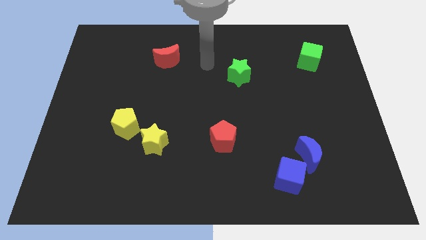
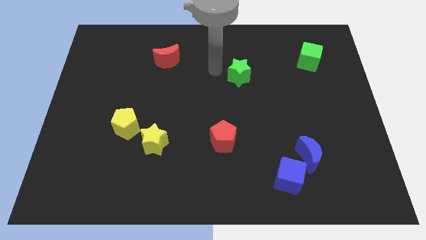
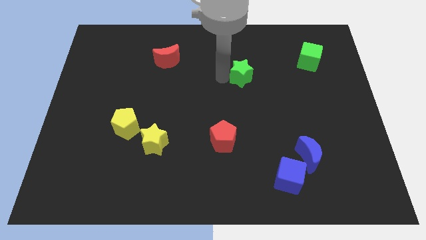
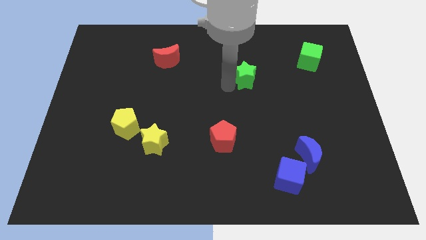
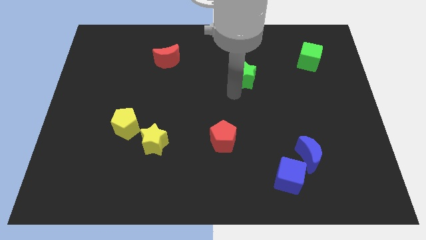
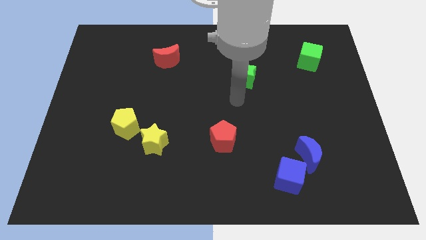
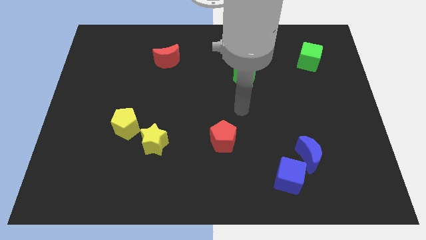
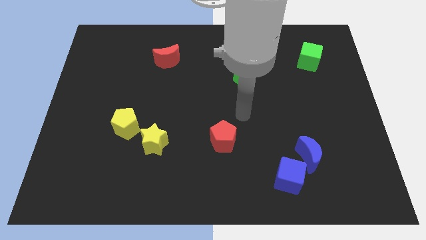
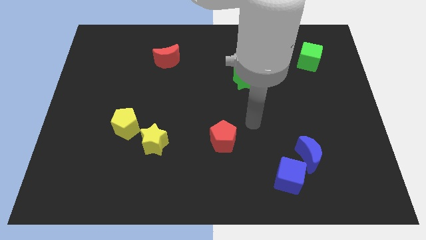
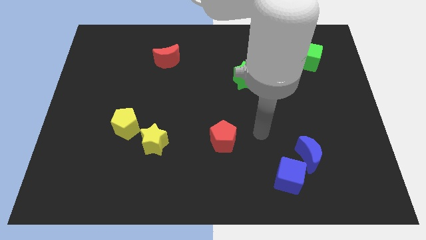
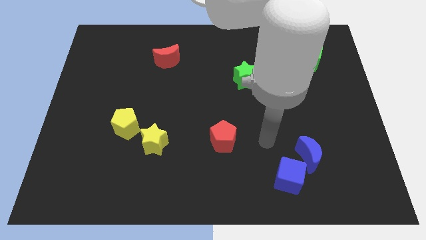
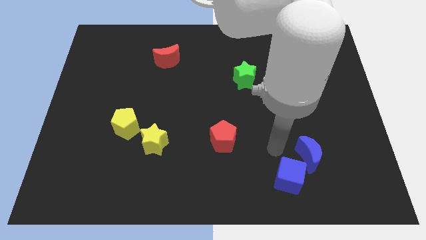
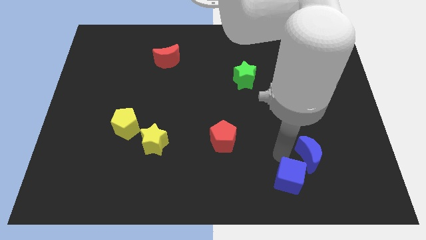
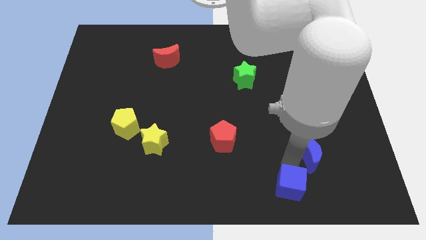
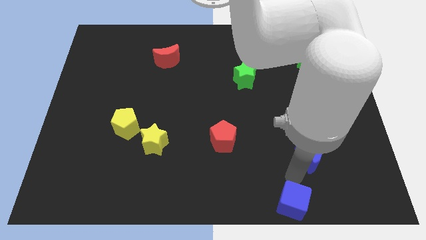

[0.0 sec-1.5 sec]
pull the blue moon apart from the blue cube

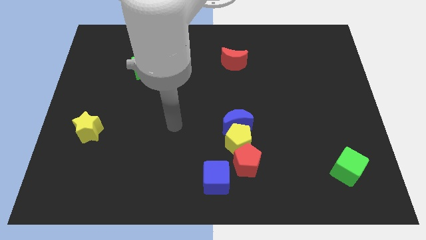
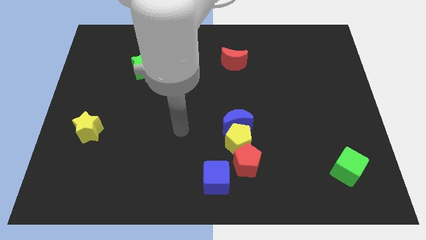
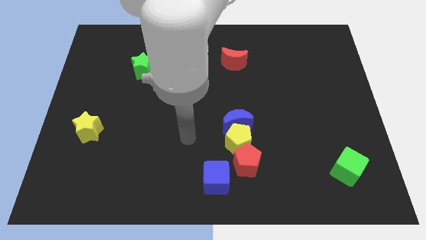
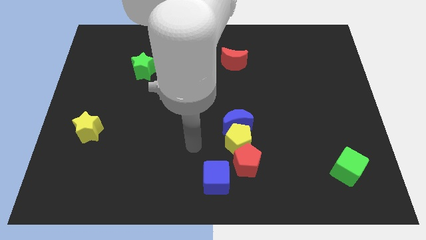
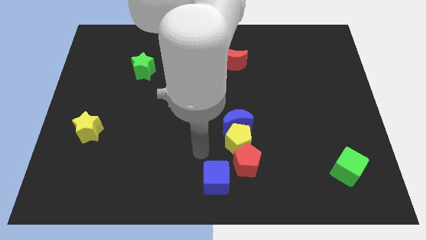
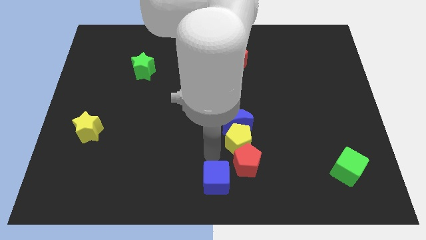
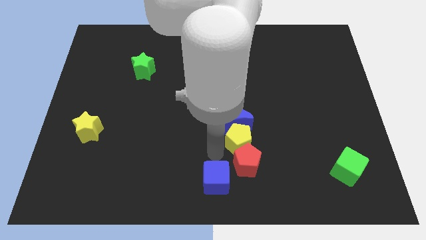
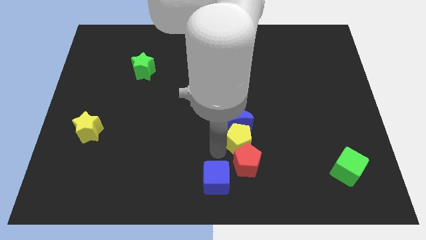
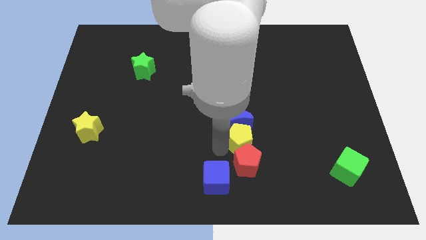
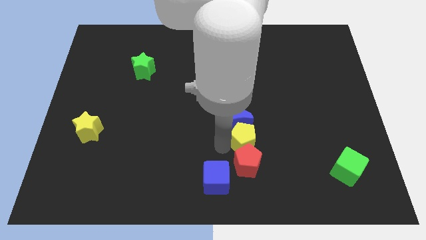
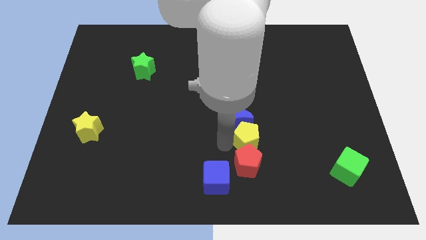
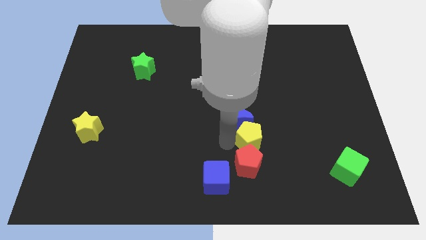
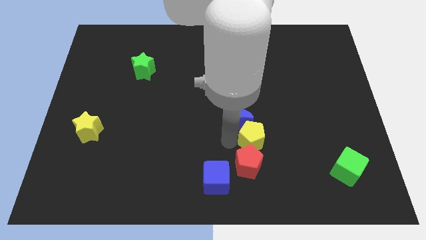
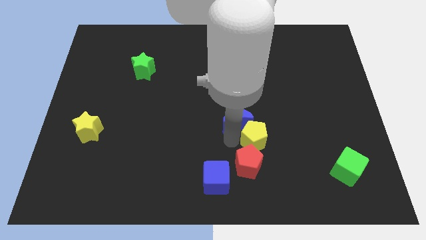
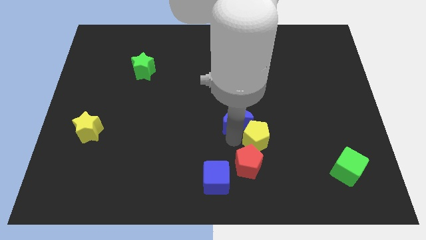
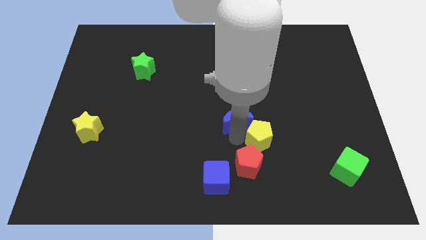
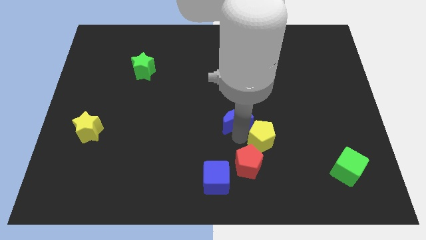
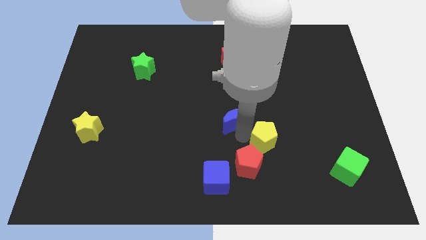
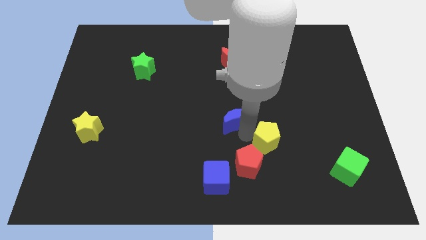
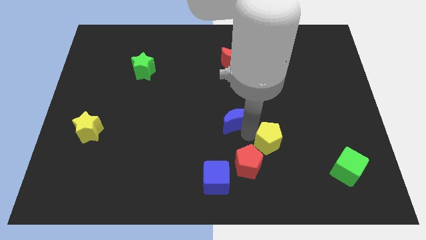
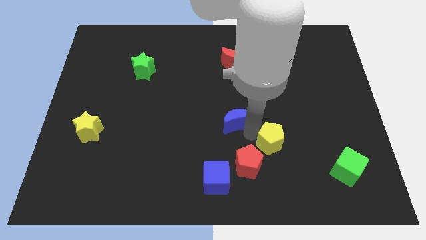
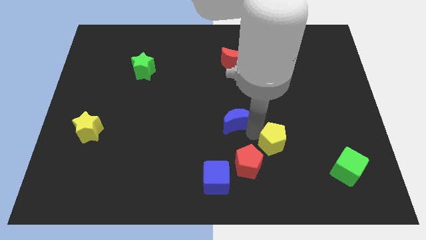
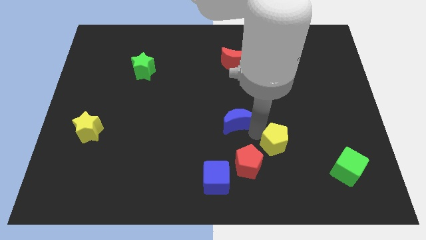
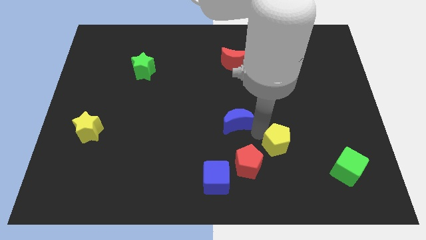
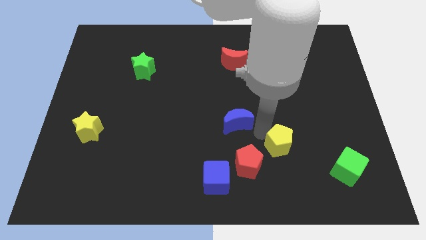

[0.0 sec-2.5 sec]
pull the yellow pentagon apart from the blue moon, red pentagon, and blue cube

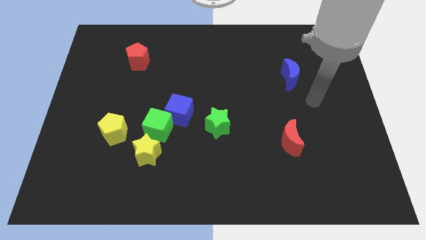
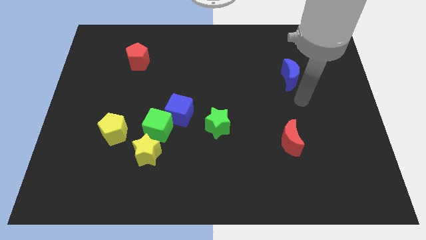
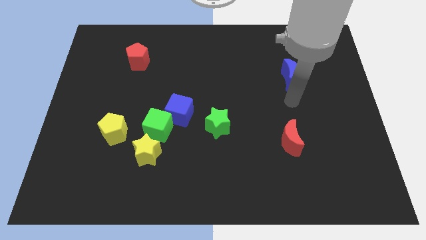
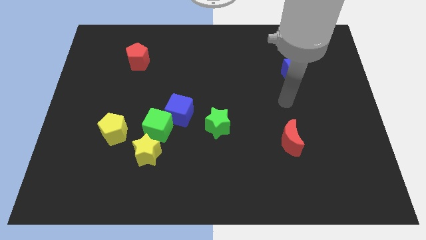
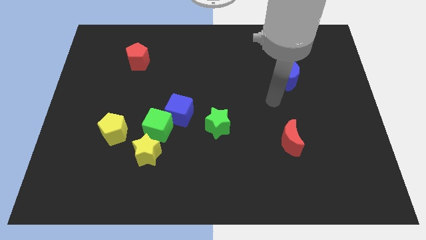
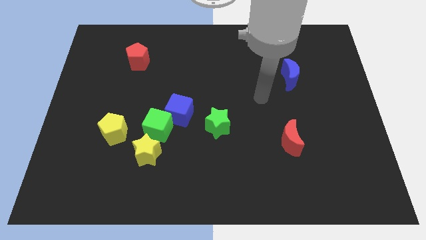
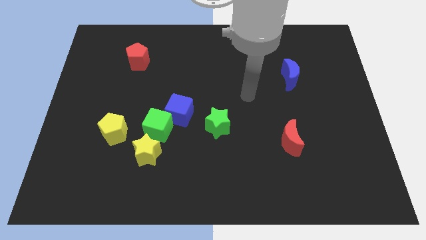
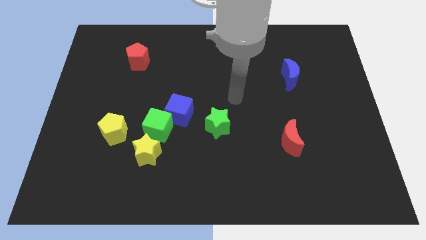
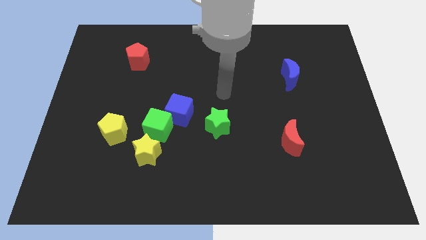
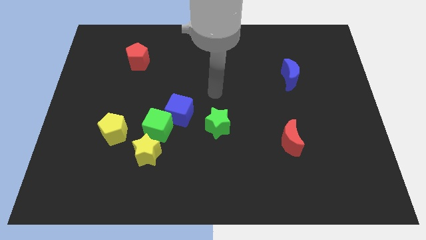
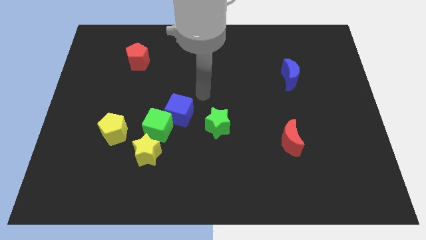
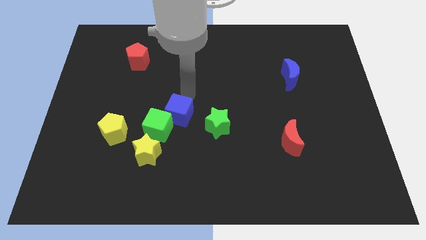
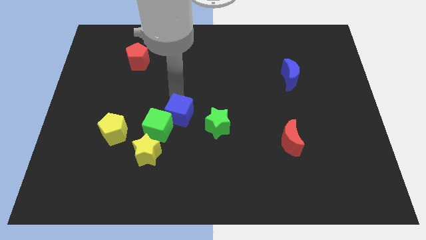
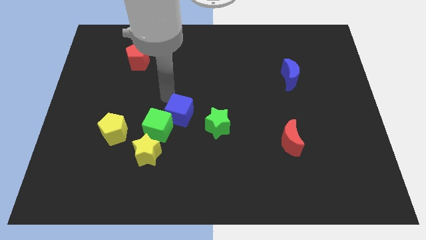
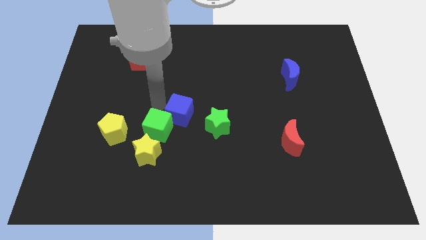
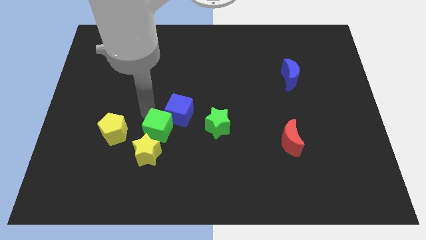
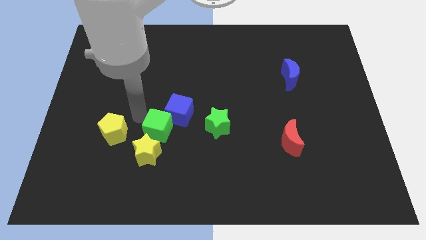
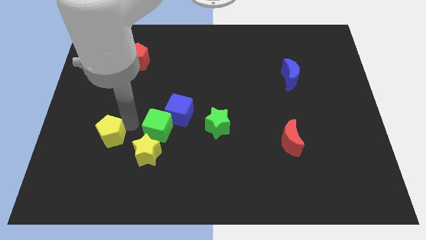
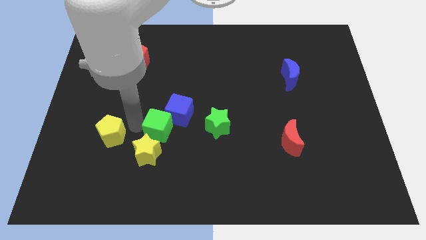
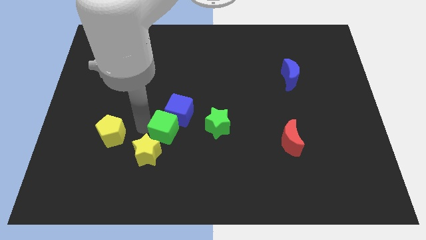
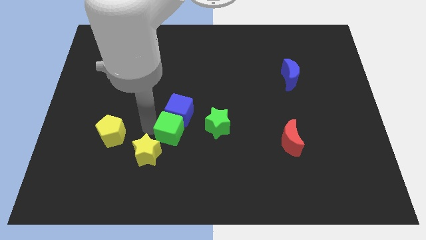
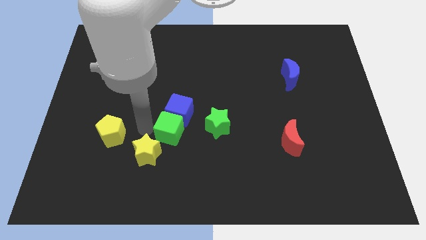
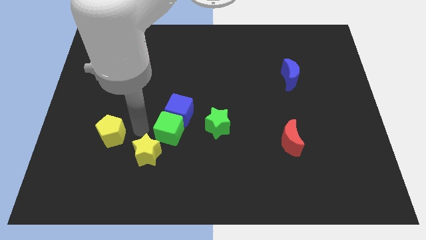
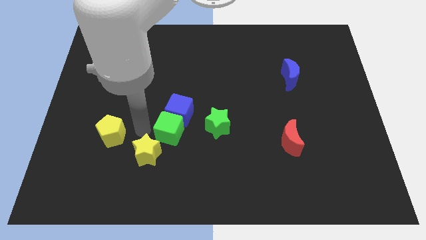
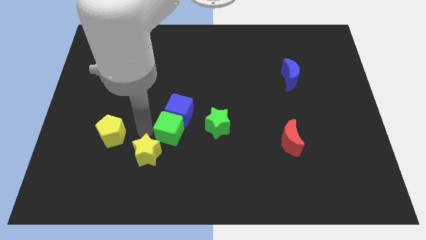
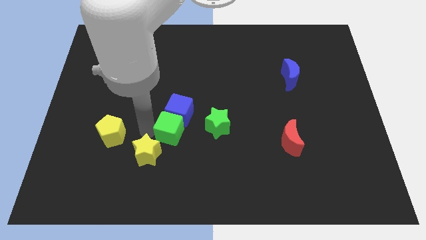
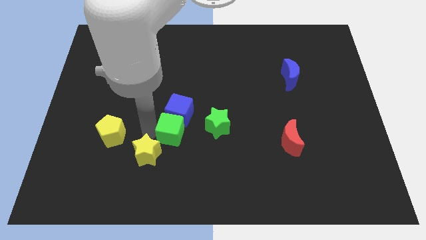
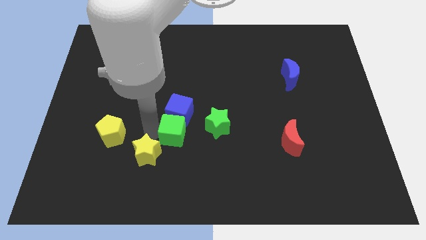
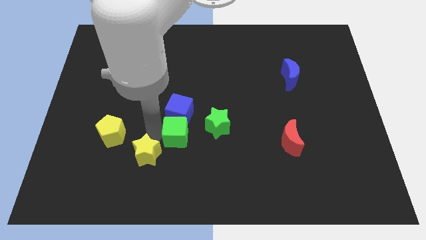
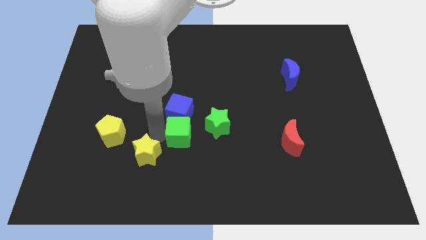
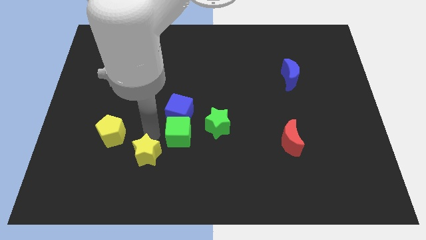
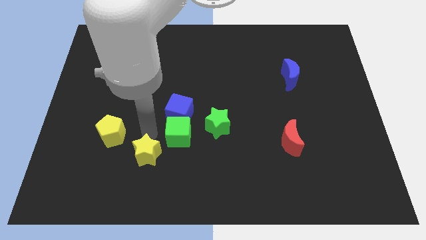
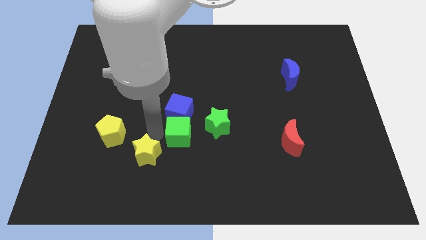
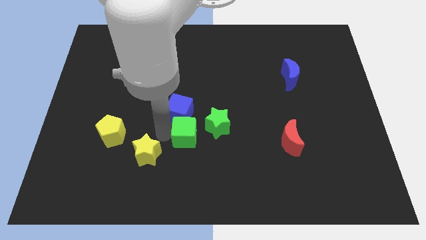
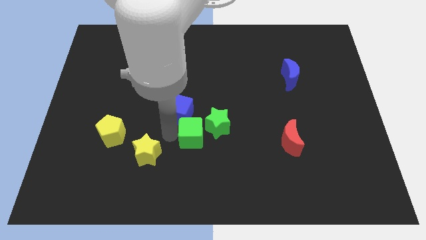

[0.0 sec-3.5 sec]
move the green cube away from the group of blocks

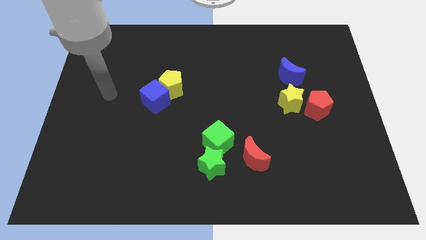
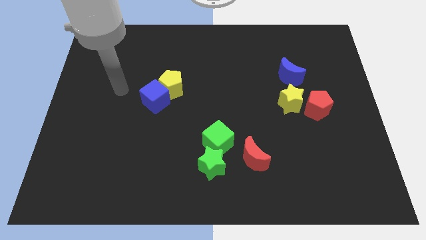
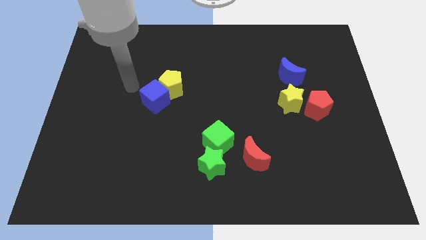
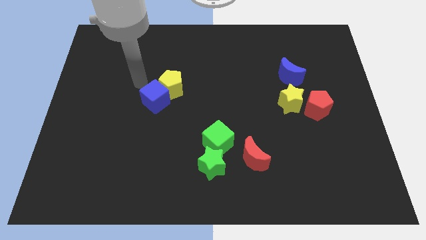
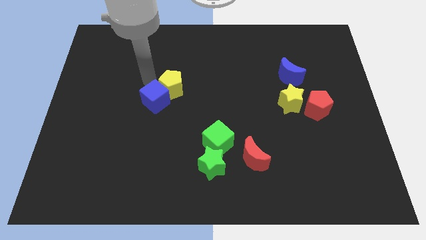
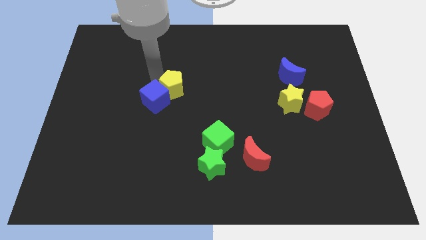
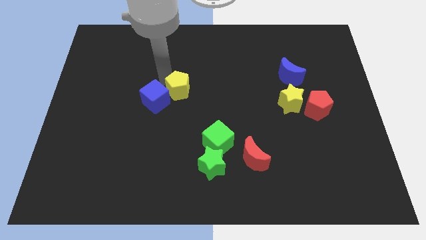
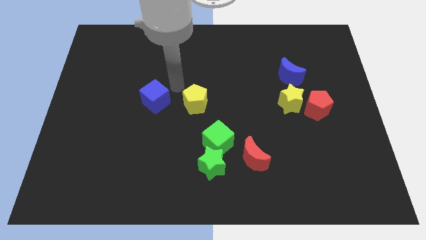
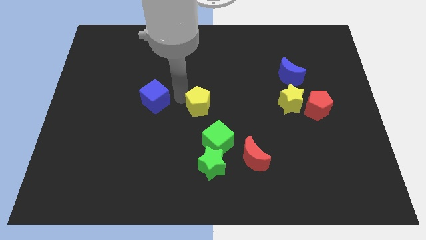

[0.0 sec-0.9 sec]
pull the blue cube apart from the yellow pentagon

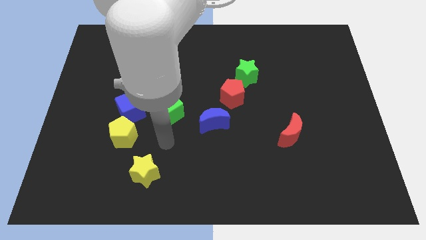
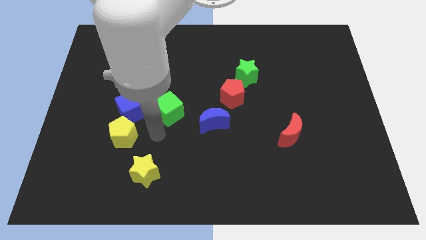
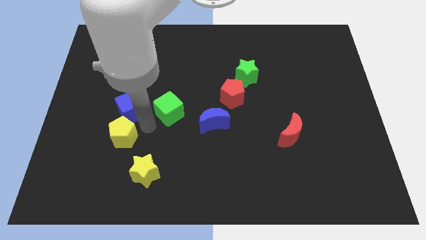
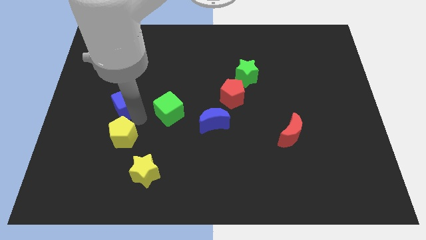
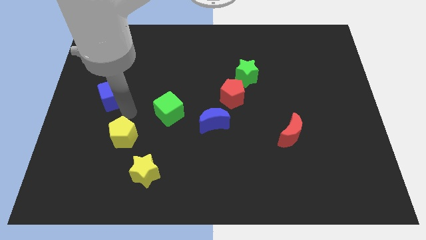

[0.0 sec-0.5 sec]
pull the yellow pentagon apart from the blue cube

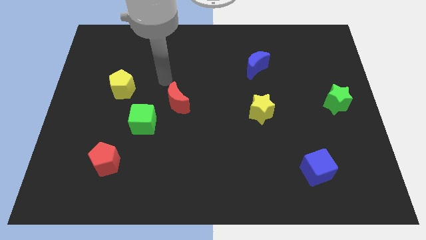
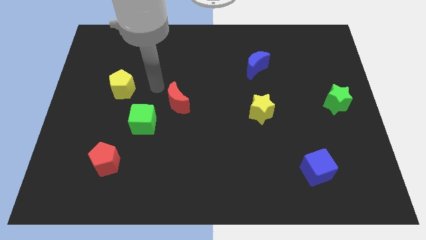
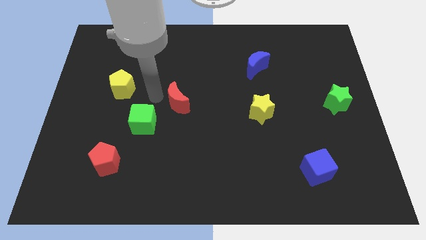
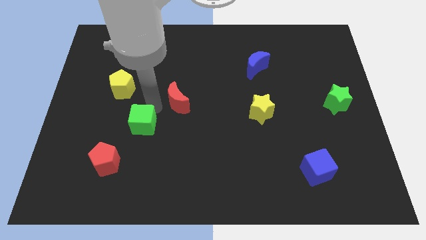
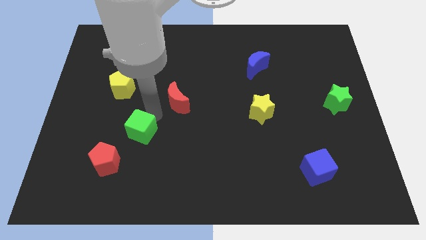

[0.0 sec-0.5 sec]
move the red moon away from the green cube
